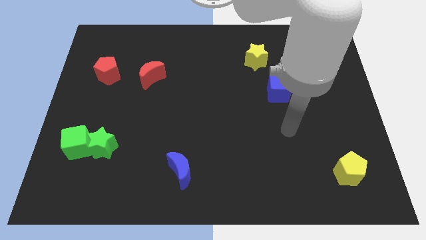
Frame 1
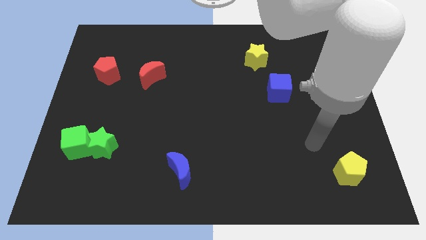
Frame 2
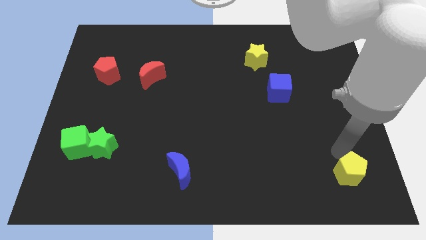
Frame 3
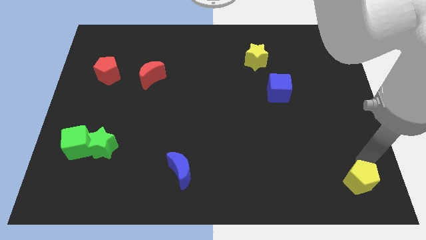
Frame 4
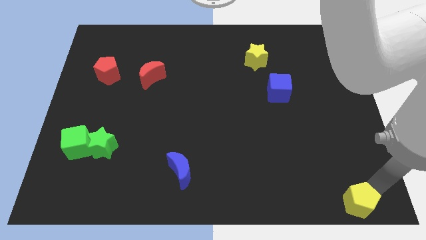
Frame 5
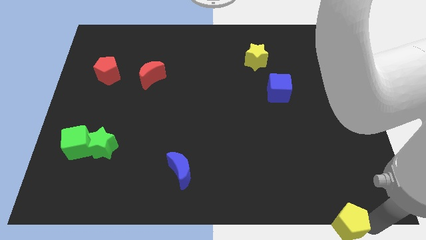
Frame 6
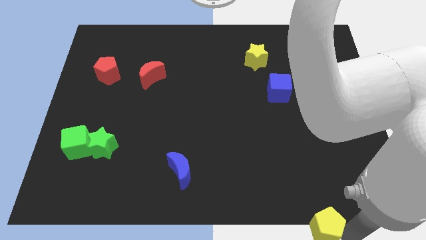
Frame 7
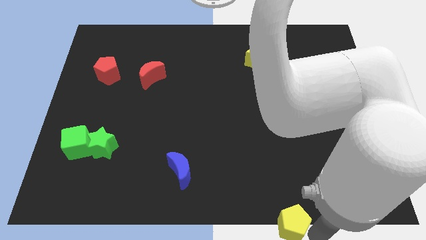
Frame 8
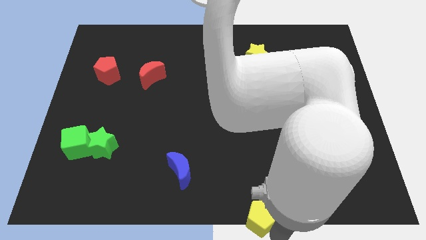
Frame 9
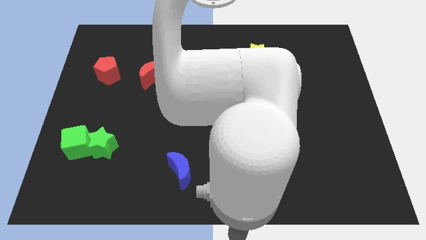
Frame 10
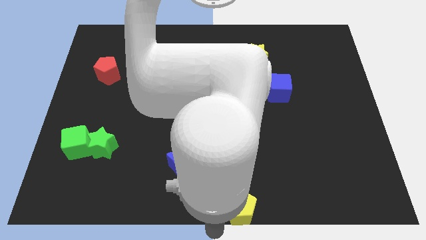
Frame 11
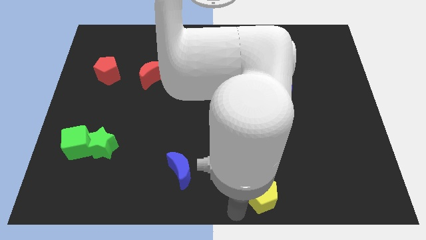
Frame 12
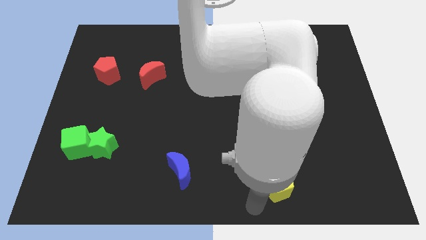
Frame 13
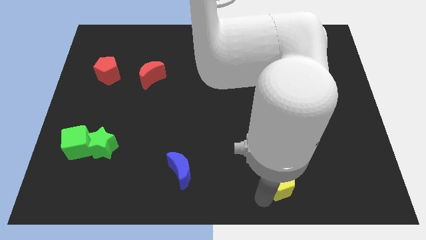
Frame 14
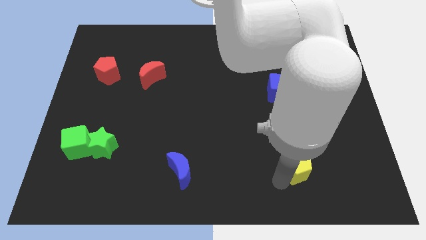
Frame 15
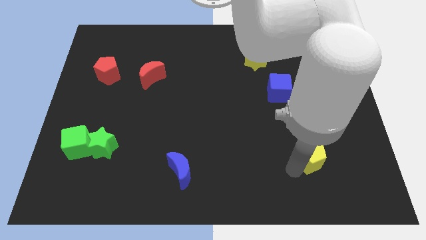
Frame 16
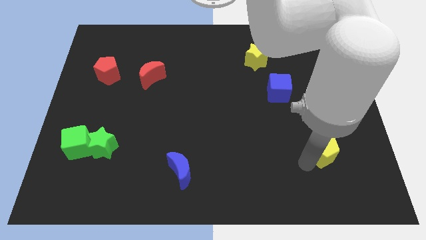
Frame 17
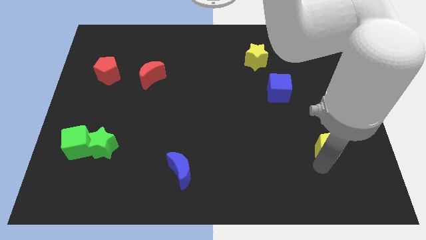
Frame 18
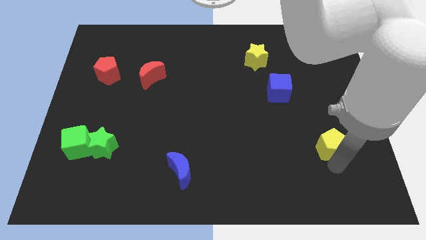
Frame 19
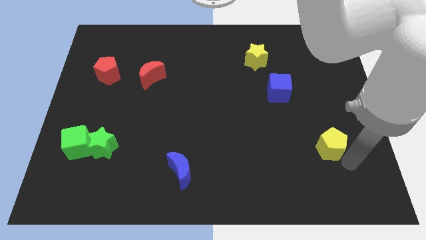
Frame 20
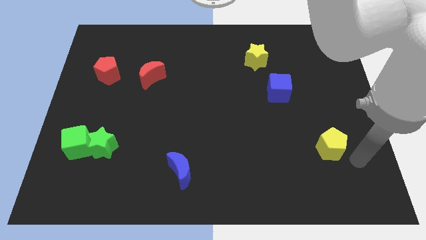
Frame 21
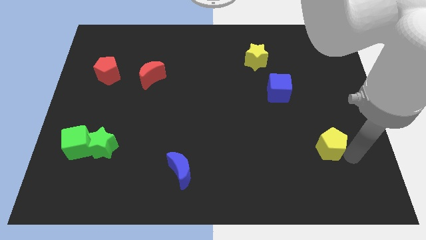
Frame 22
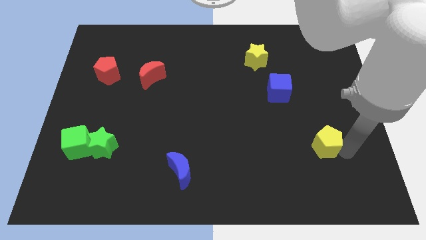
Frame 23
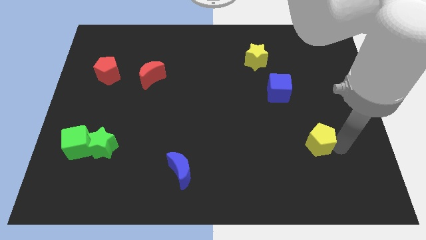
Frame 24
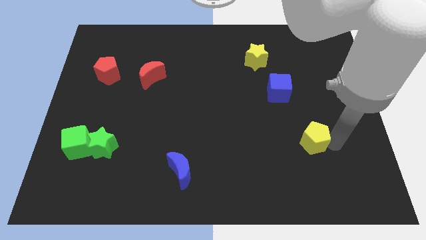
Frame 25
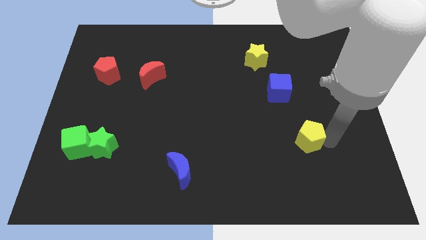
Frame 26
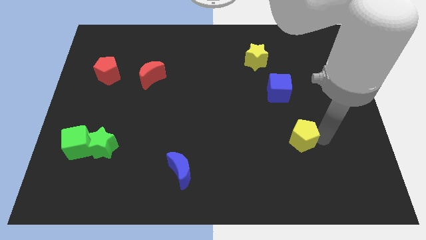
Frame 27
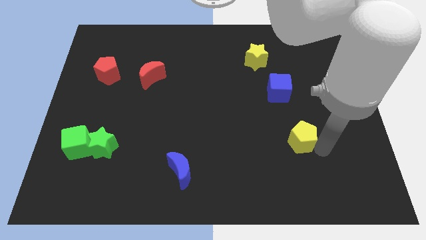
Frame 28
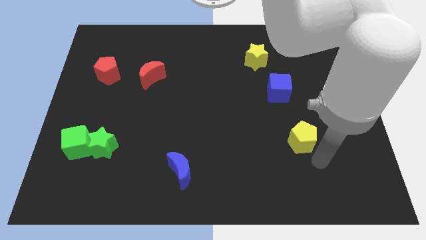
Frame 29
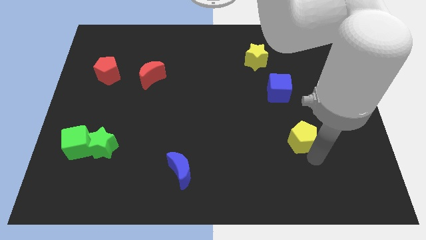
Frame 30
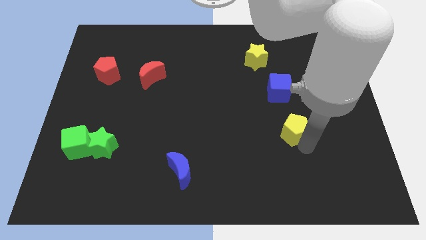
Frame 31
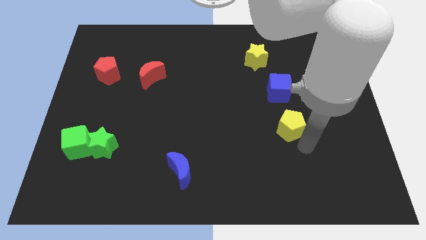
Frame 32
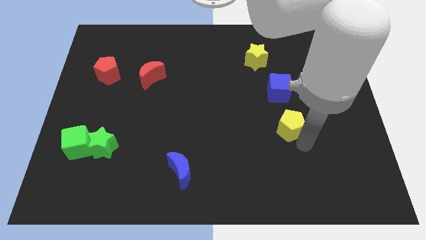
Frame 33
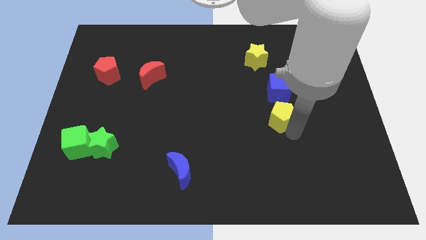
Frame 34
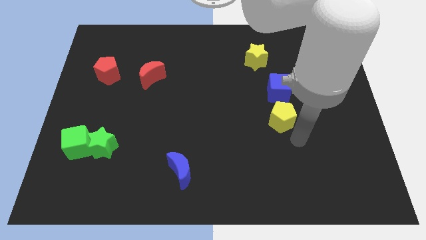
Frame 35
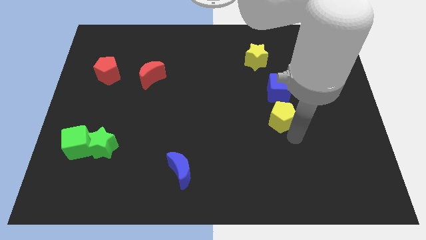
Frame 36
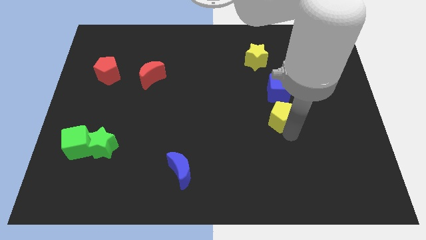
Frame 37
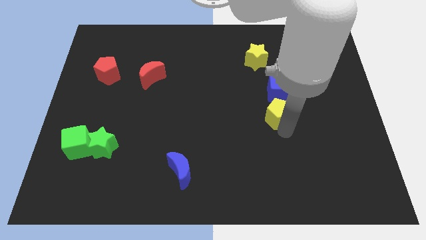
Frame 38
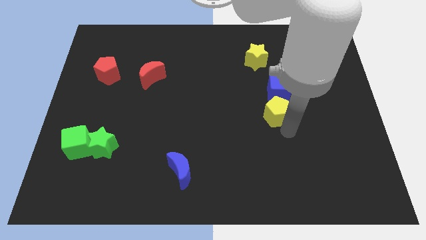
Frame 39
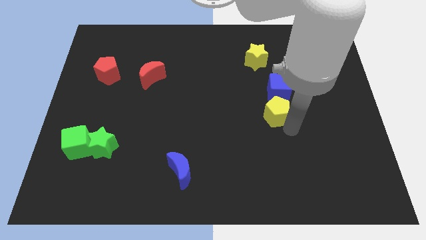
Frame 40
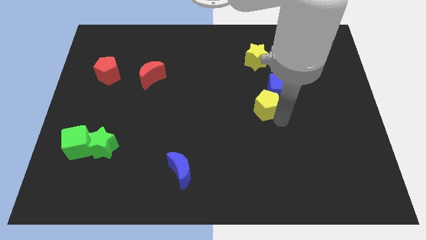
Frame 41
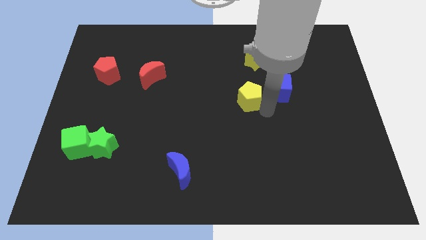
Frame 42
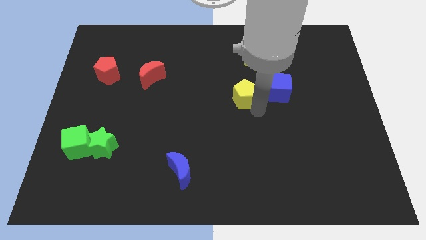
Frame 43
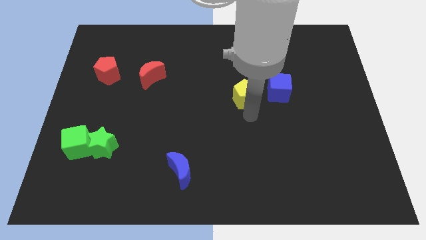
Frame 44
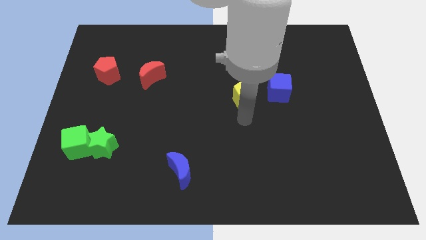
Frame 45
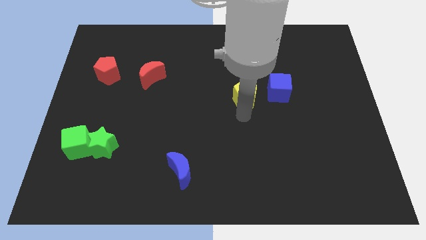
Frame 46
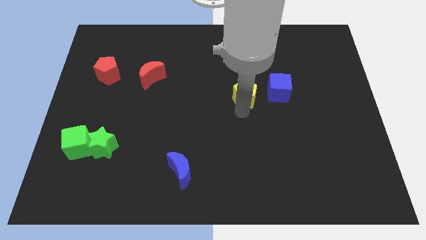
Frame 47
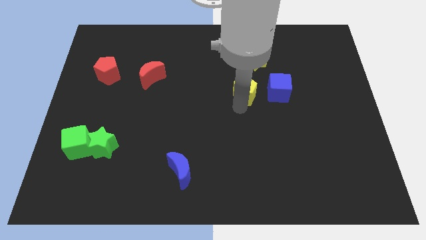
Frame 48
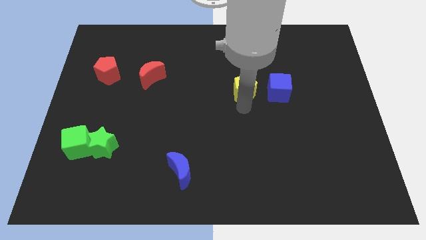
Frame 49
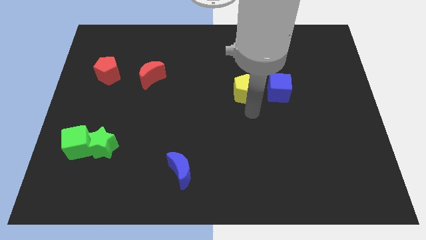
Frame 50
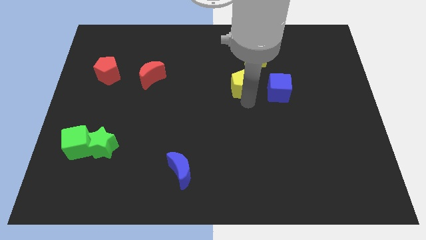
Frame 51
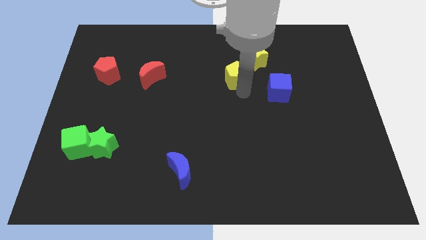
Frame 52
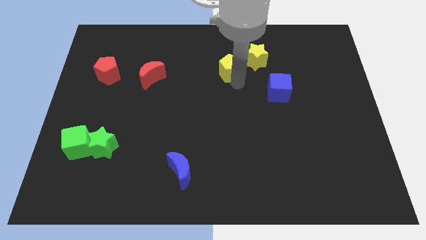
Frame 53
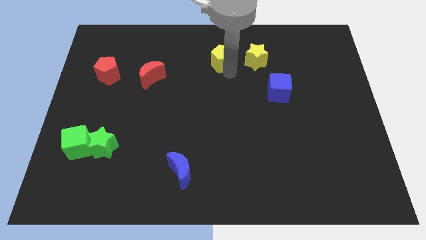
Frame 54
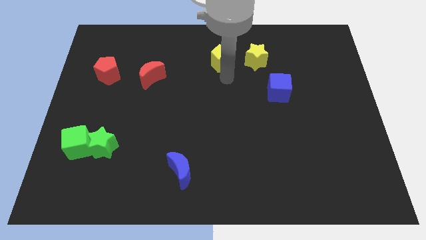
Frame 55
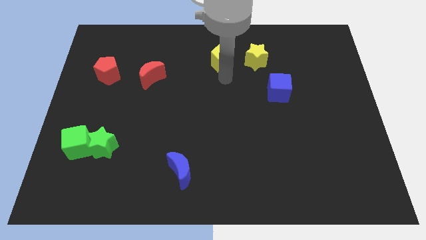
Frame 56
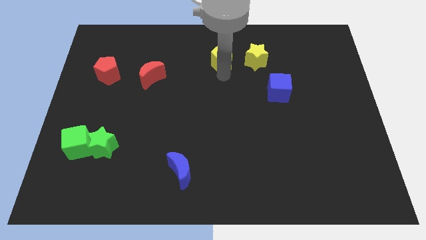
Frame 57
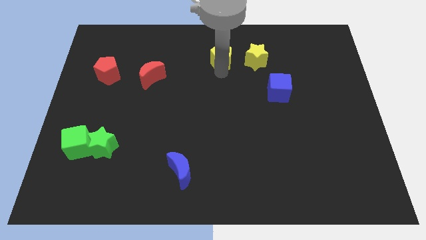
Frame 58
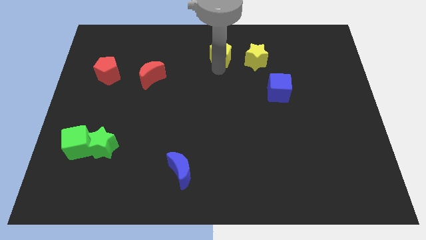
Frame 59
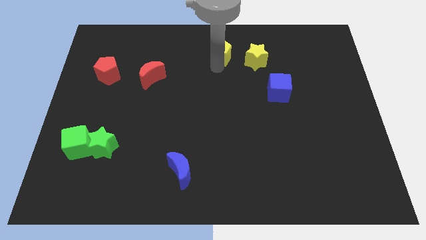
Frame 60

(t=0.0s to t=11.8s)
move the yellow pentagon to the top

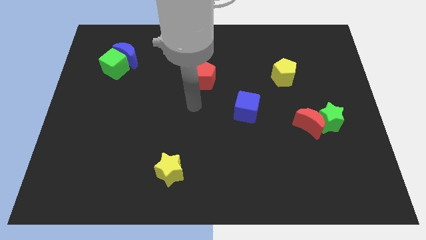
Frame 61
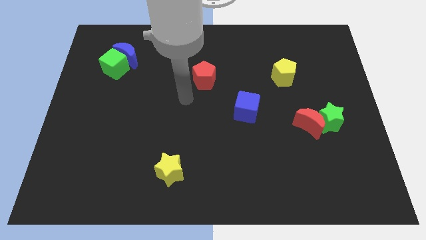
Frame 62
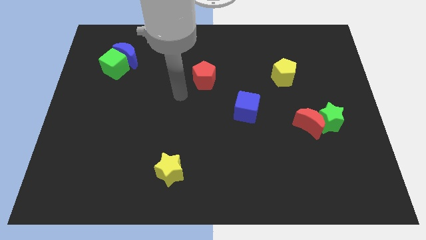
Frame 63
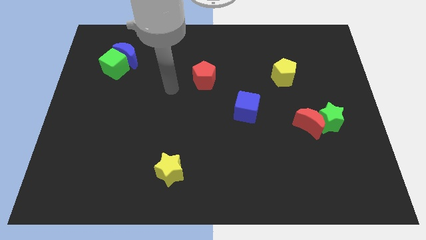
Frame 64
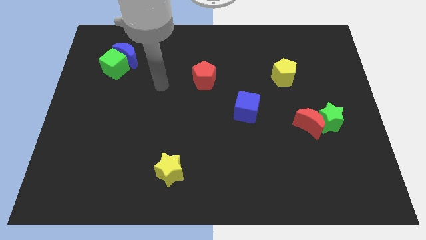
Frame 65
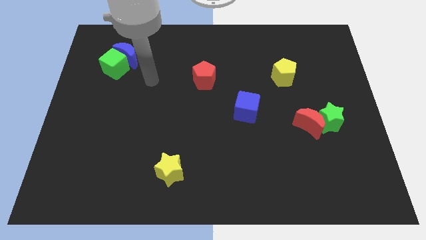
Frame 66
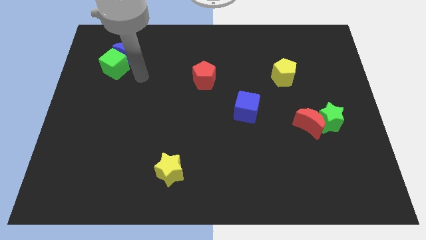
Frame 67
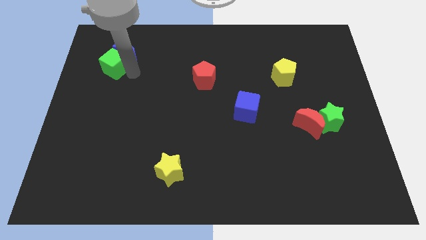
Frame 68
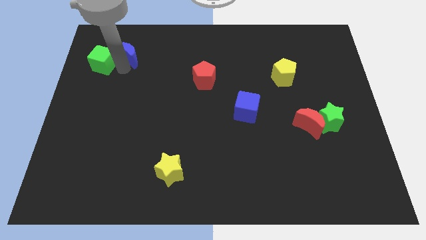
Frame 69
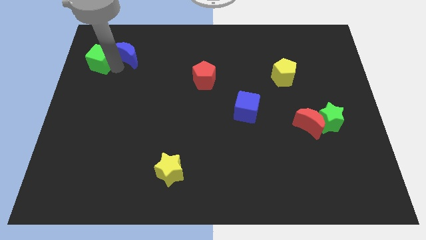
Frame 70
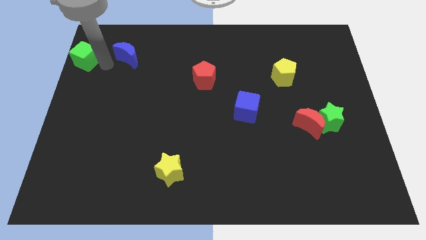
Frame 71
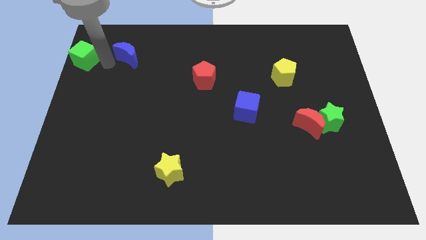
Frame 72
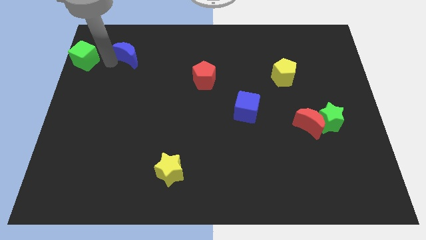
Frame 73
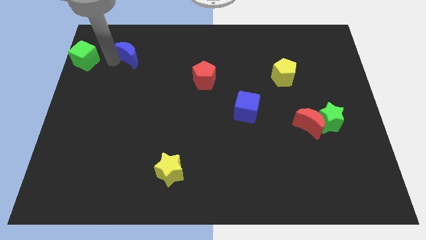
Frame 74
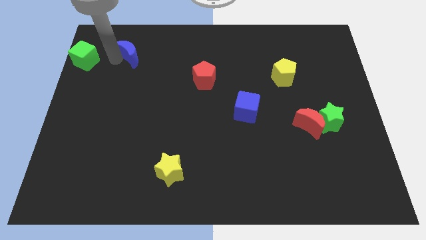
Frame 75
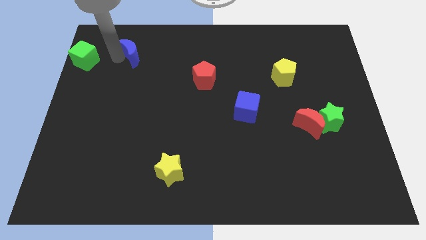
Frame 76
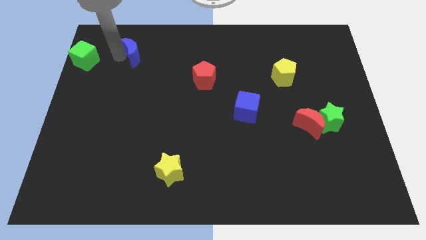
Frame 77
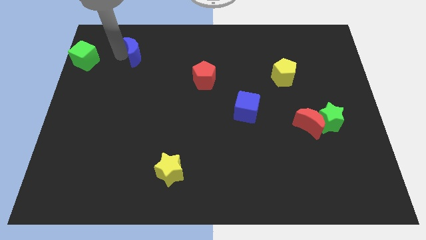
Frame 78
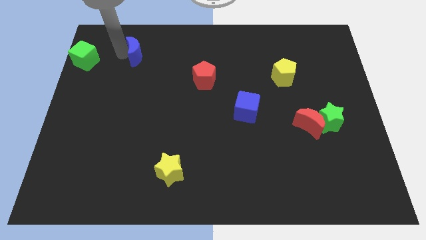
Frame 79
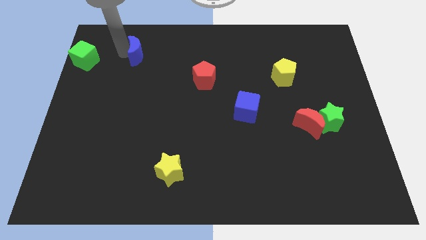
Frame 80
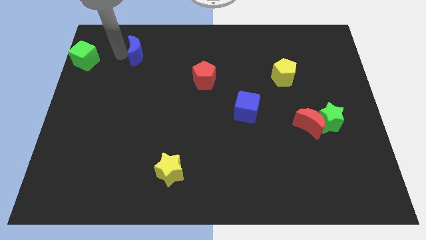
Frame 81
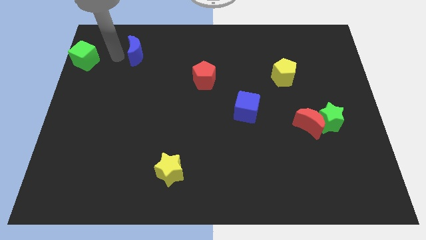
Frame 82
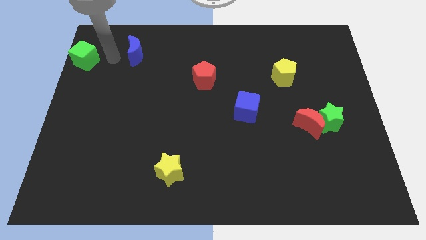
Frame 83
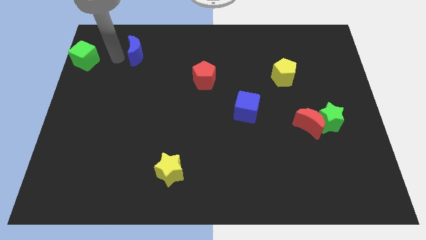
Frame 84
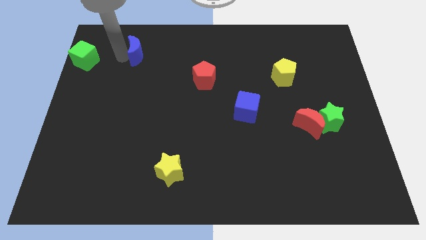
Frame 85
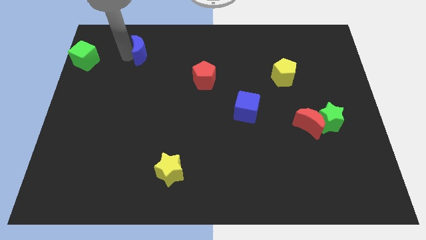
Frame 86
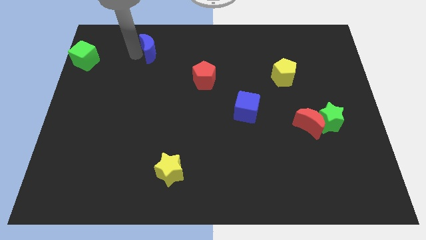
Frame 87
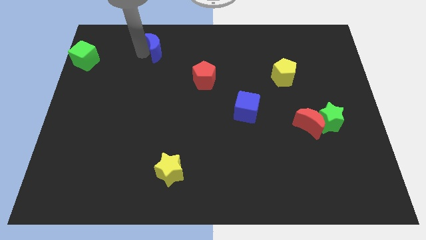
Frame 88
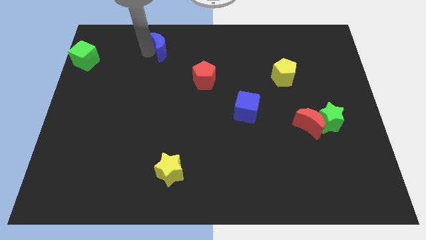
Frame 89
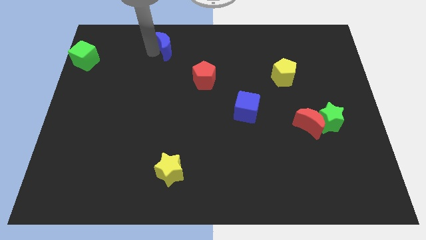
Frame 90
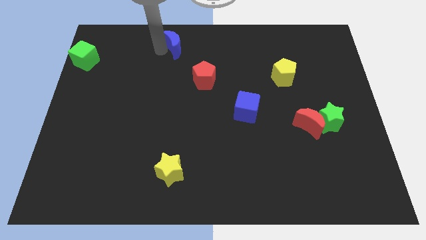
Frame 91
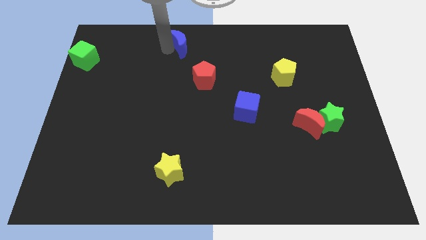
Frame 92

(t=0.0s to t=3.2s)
slide the blue moon to the towards your base
